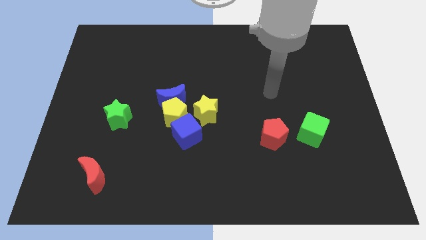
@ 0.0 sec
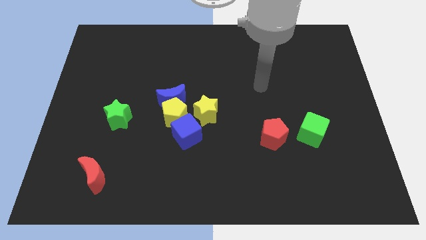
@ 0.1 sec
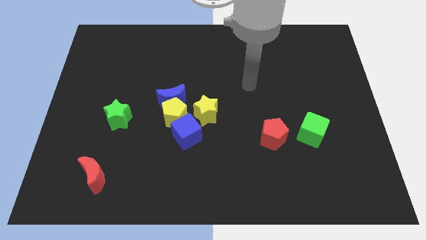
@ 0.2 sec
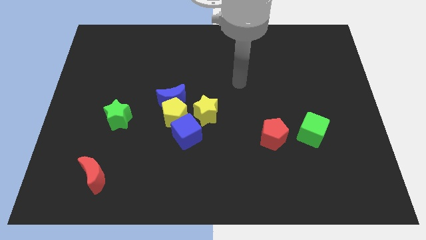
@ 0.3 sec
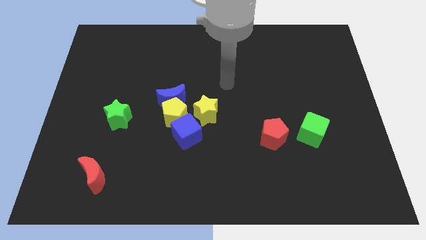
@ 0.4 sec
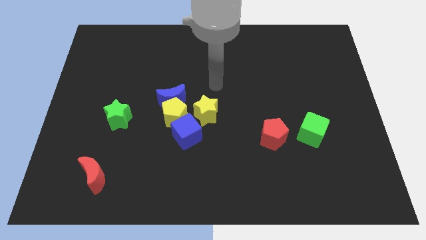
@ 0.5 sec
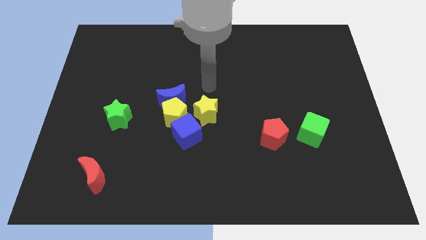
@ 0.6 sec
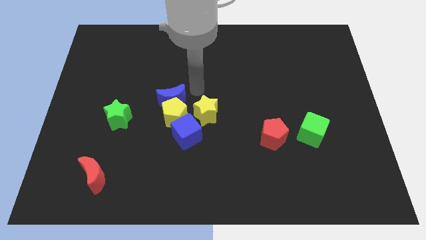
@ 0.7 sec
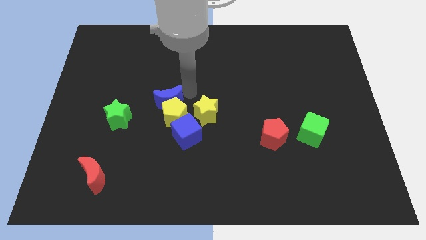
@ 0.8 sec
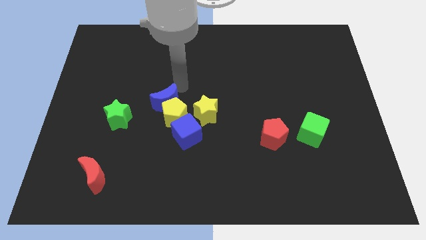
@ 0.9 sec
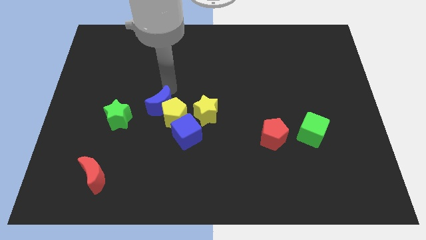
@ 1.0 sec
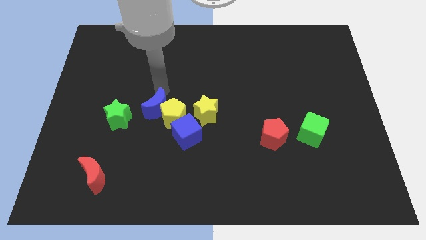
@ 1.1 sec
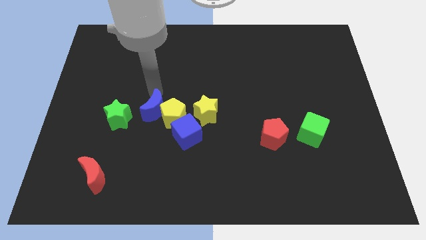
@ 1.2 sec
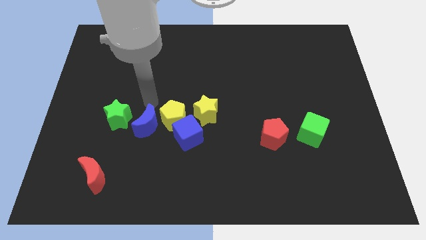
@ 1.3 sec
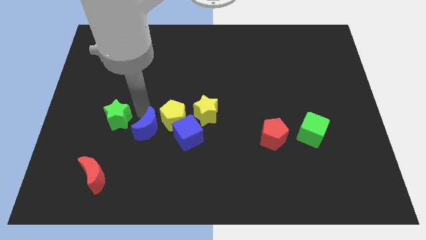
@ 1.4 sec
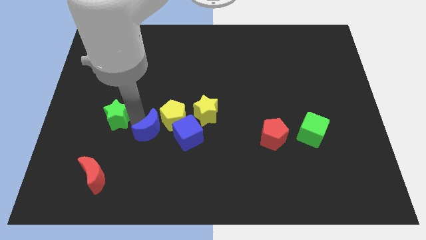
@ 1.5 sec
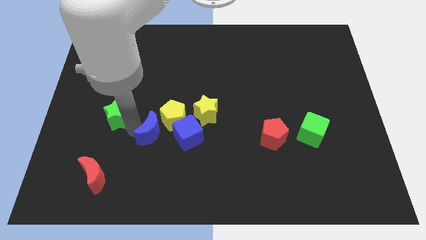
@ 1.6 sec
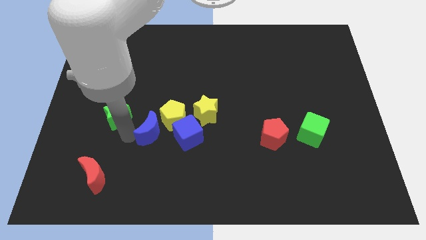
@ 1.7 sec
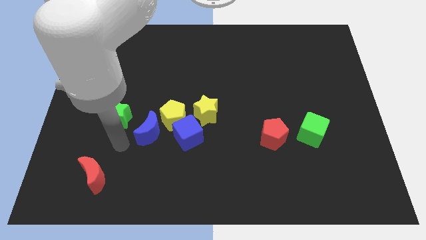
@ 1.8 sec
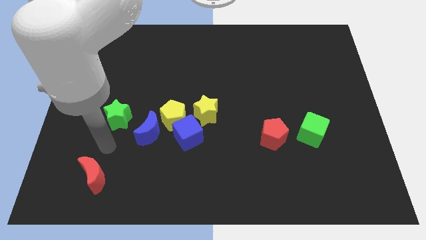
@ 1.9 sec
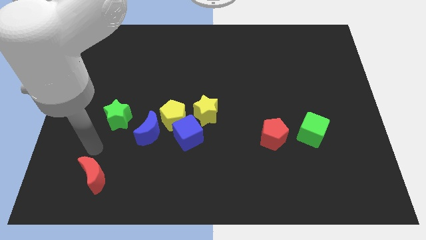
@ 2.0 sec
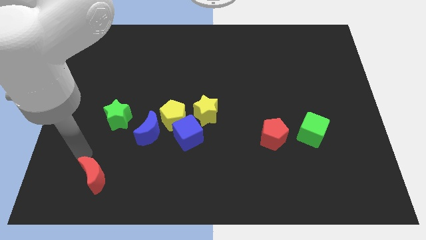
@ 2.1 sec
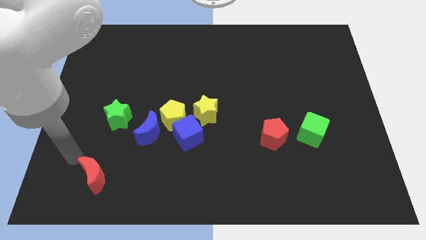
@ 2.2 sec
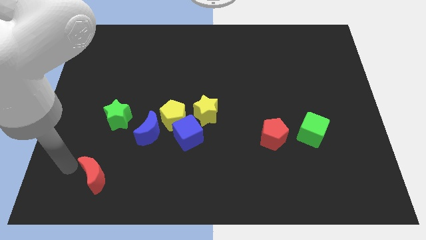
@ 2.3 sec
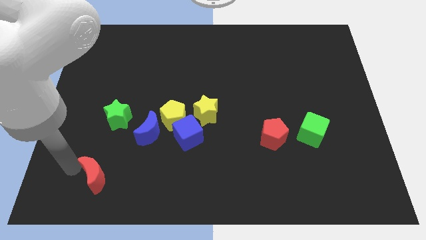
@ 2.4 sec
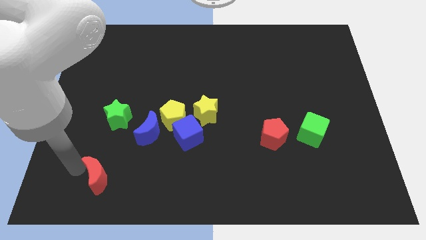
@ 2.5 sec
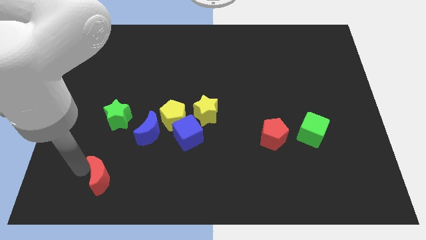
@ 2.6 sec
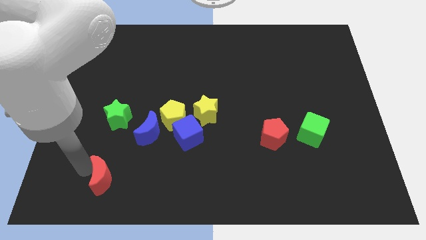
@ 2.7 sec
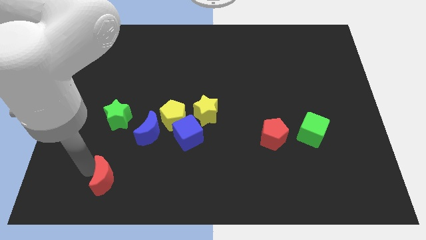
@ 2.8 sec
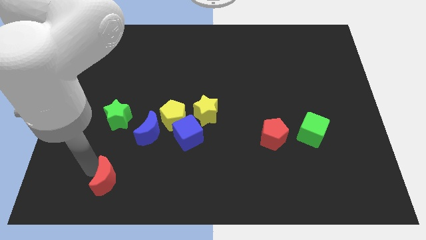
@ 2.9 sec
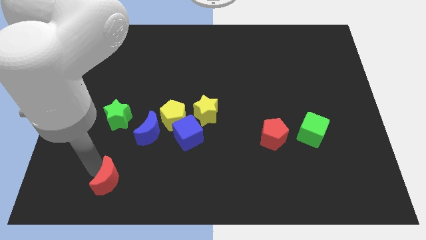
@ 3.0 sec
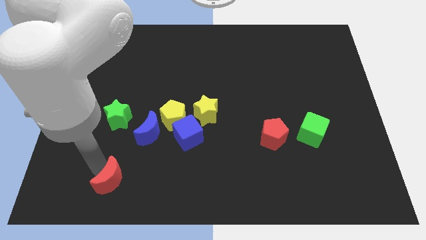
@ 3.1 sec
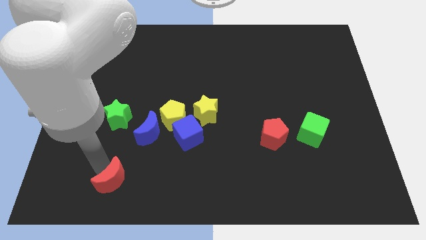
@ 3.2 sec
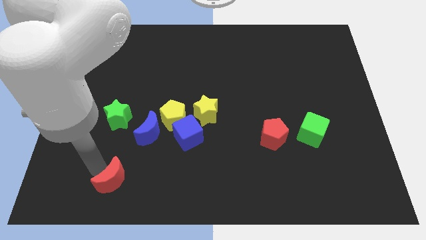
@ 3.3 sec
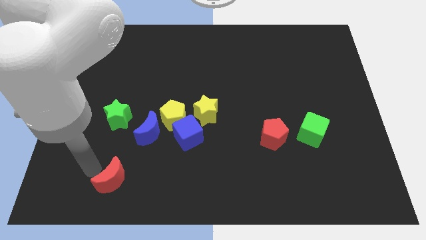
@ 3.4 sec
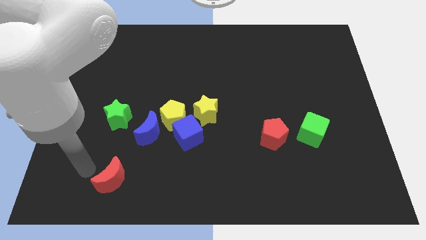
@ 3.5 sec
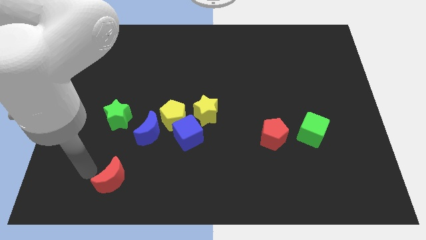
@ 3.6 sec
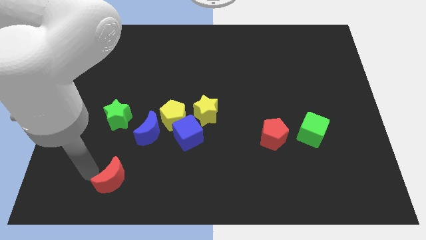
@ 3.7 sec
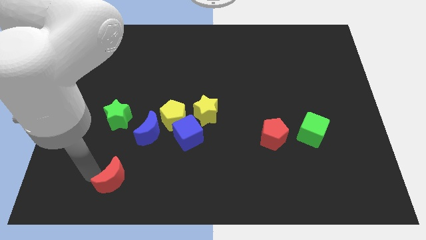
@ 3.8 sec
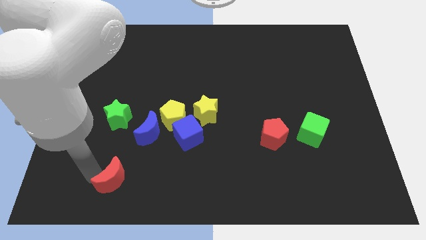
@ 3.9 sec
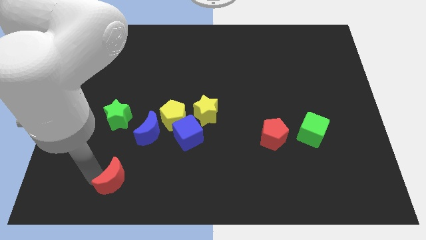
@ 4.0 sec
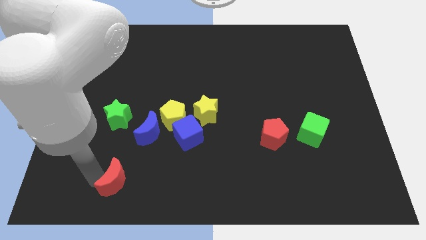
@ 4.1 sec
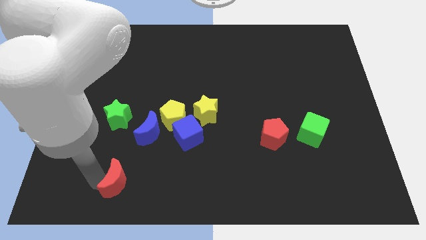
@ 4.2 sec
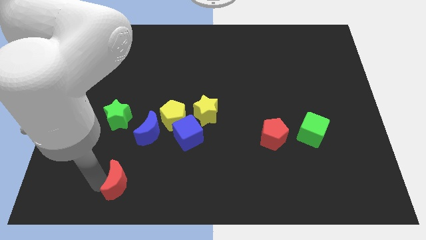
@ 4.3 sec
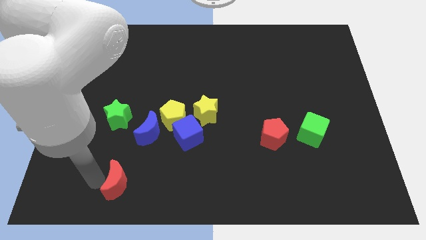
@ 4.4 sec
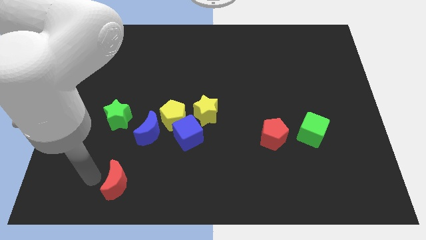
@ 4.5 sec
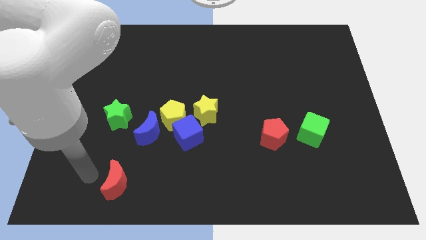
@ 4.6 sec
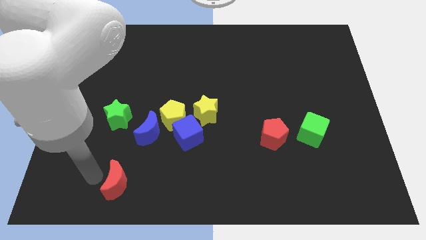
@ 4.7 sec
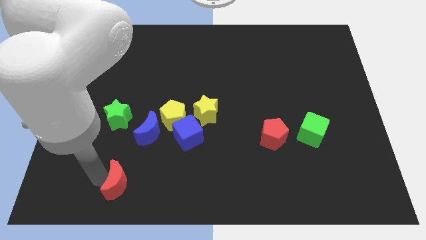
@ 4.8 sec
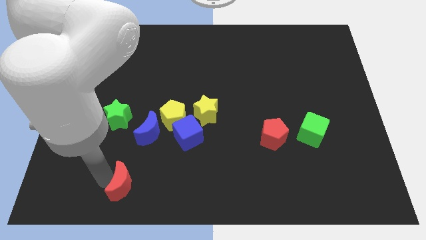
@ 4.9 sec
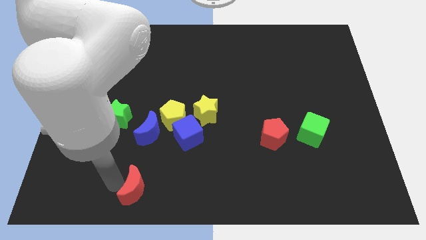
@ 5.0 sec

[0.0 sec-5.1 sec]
push the red moon right somewhat

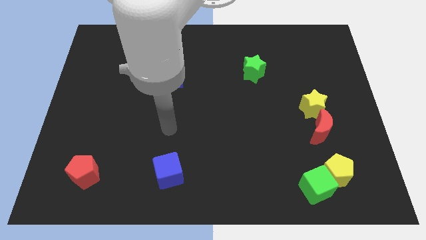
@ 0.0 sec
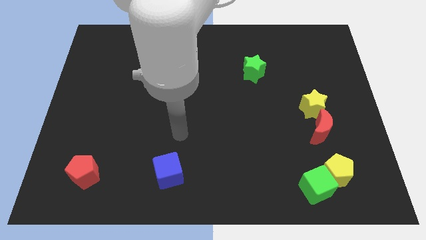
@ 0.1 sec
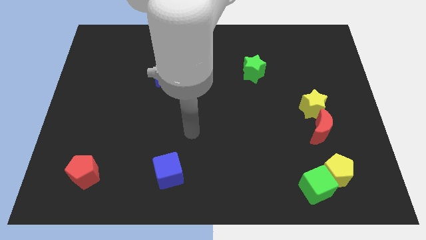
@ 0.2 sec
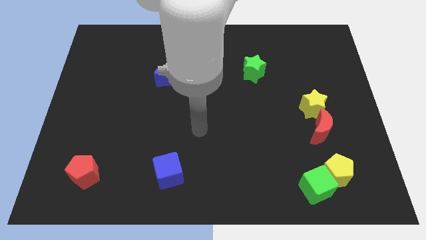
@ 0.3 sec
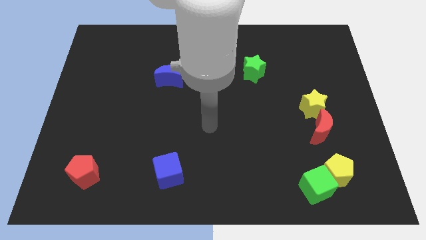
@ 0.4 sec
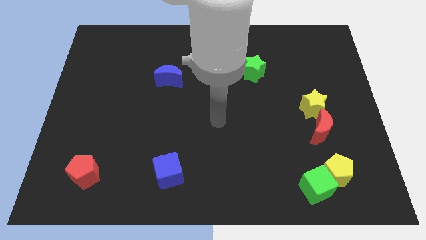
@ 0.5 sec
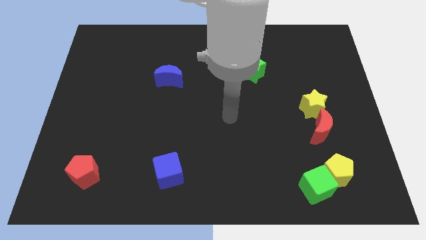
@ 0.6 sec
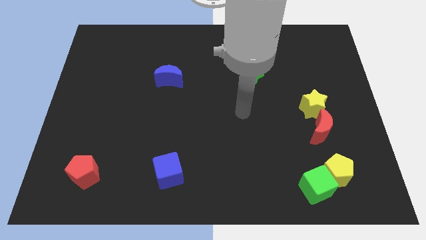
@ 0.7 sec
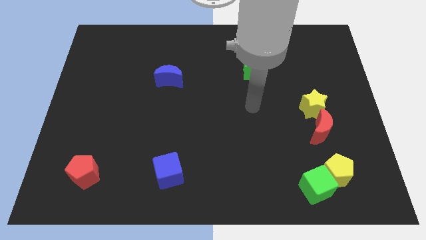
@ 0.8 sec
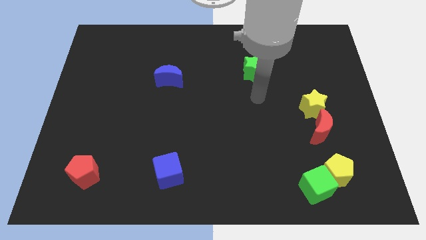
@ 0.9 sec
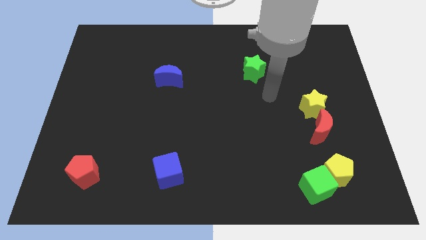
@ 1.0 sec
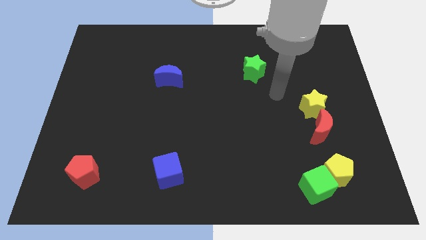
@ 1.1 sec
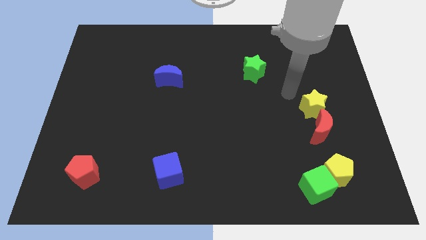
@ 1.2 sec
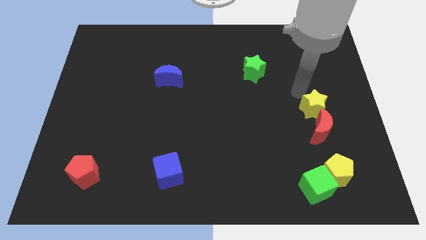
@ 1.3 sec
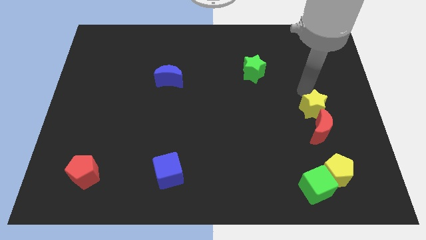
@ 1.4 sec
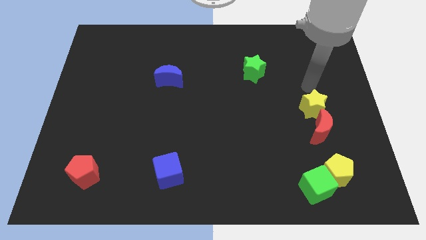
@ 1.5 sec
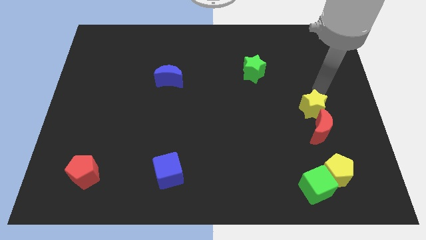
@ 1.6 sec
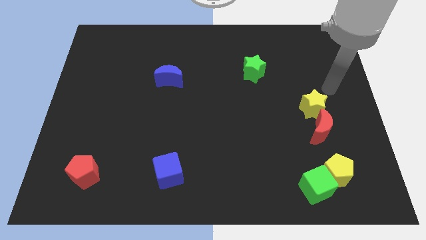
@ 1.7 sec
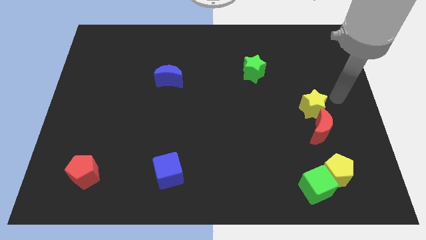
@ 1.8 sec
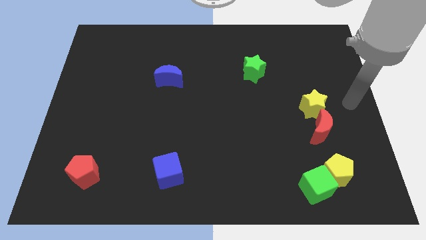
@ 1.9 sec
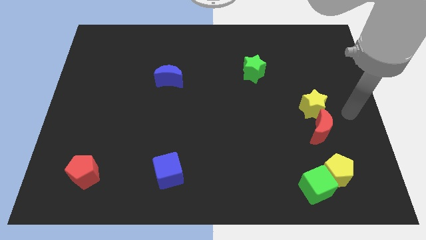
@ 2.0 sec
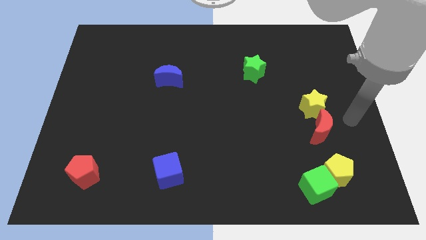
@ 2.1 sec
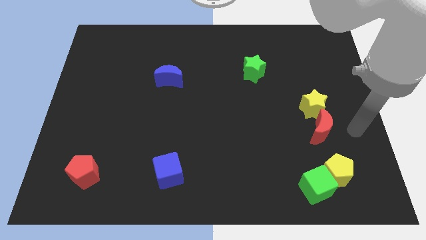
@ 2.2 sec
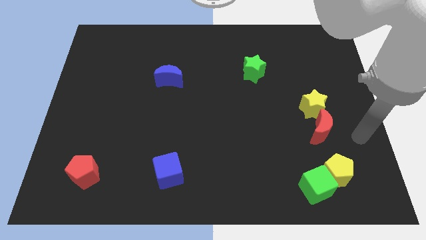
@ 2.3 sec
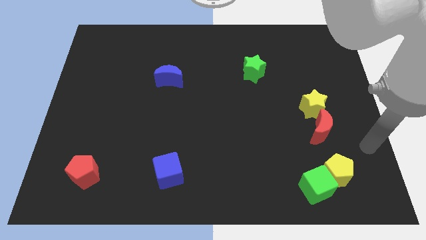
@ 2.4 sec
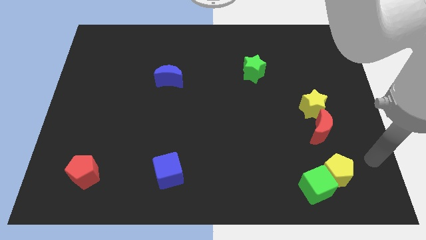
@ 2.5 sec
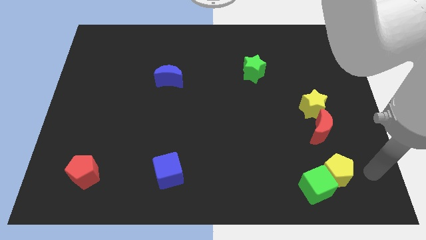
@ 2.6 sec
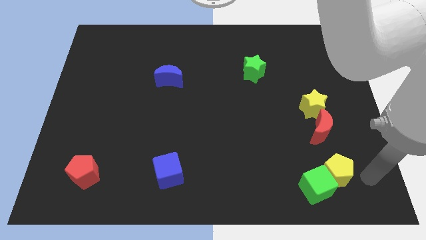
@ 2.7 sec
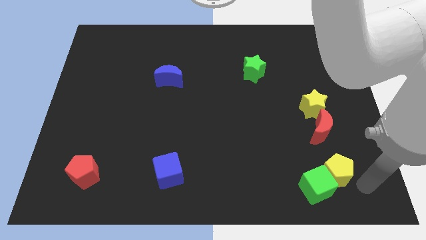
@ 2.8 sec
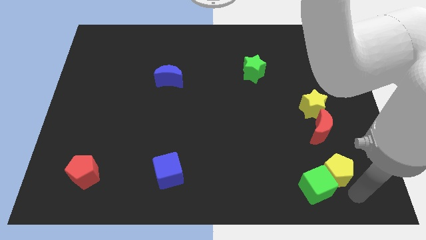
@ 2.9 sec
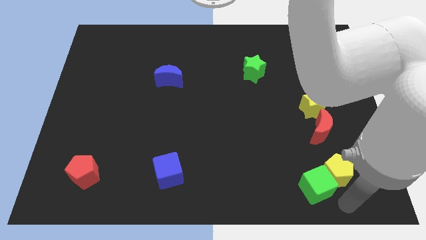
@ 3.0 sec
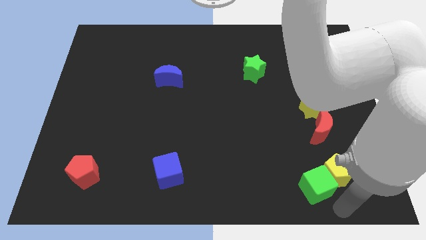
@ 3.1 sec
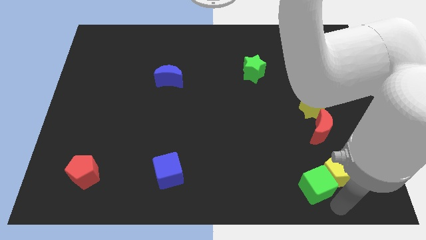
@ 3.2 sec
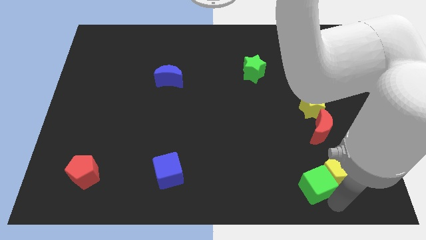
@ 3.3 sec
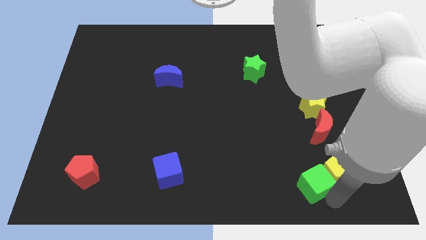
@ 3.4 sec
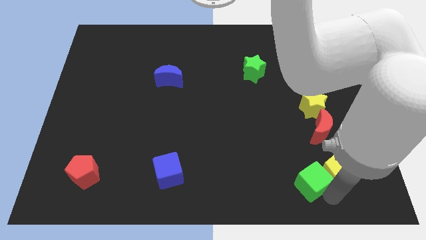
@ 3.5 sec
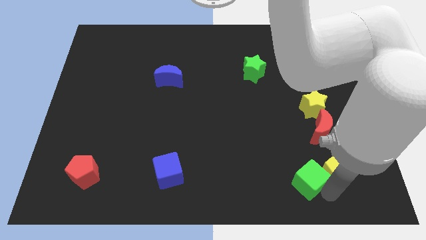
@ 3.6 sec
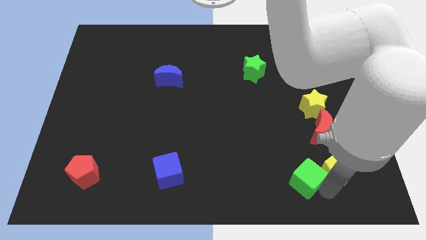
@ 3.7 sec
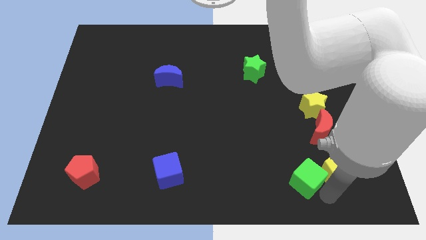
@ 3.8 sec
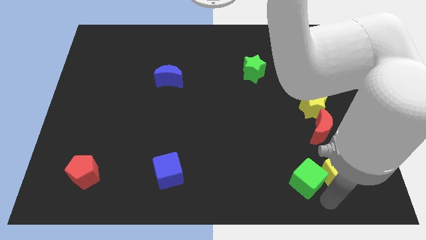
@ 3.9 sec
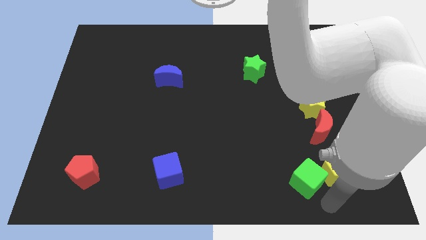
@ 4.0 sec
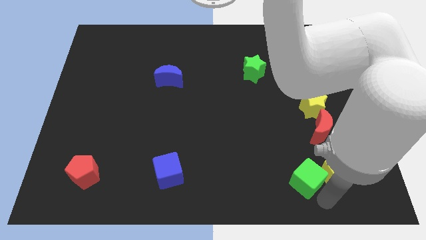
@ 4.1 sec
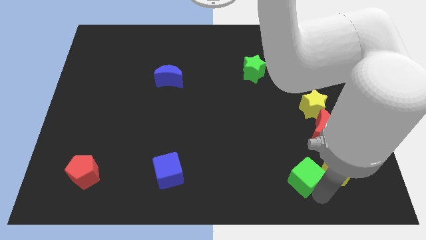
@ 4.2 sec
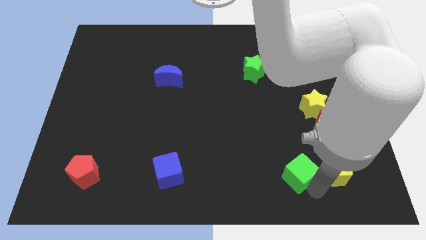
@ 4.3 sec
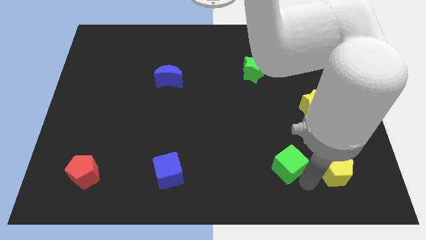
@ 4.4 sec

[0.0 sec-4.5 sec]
slightly slide the green cube up and left
